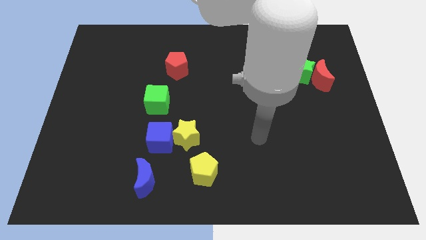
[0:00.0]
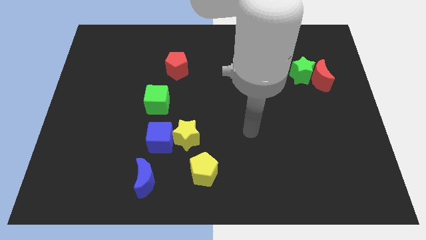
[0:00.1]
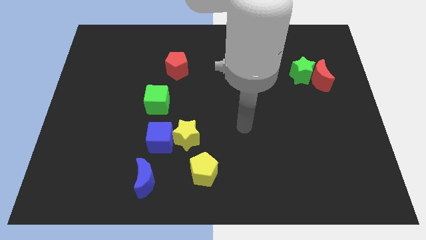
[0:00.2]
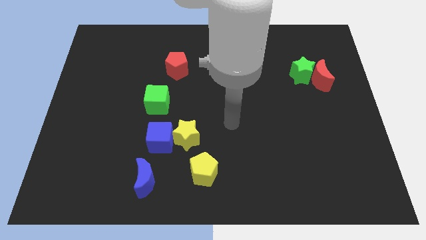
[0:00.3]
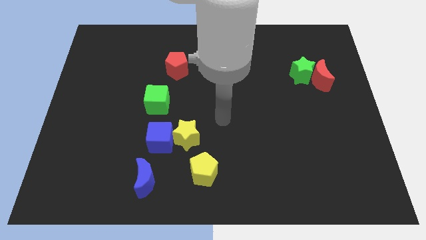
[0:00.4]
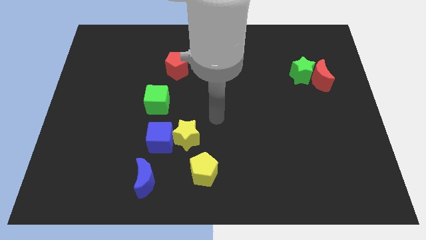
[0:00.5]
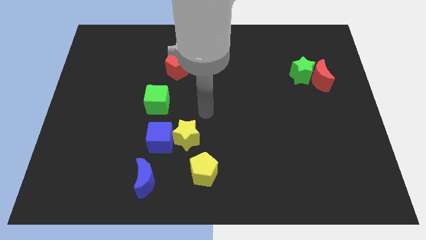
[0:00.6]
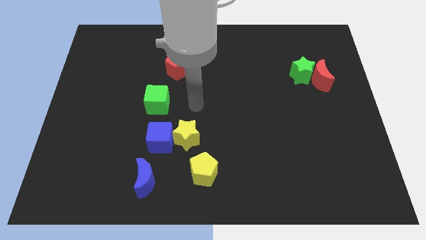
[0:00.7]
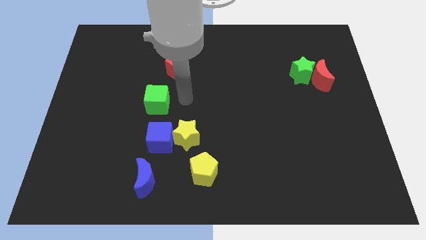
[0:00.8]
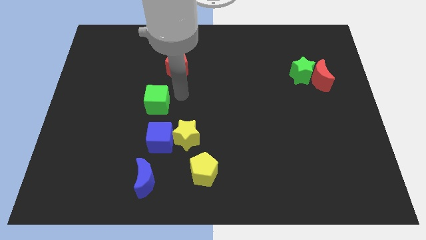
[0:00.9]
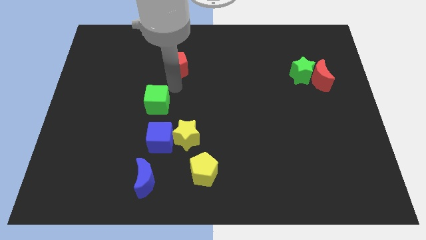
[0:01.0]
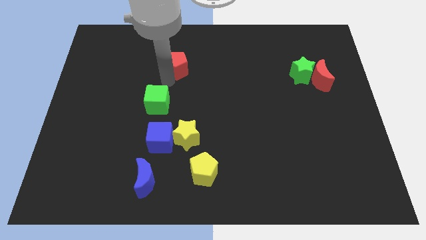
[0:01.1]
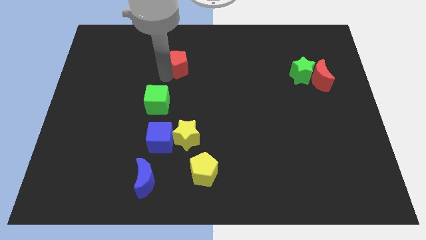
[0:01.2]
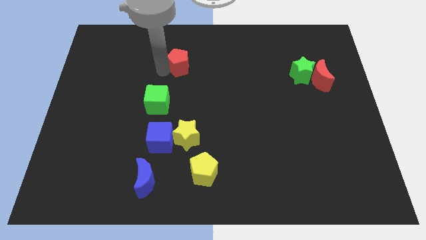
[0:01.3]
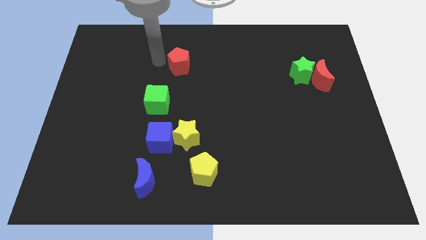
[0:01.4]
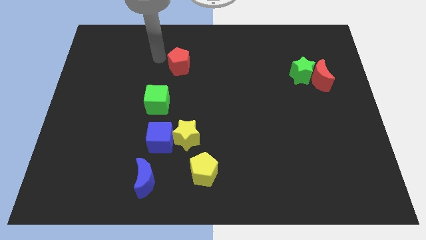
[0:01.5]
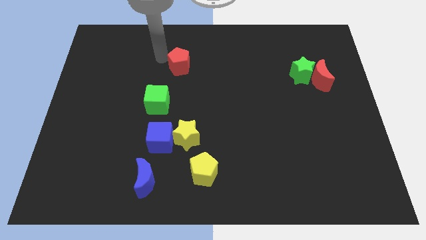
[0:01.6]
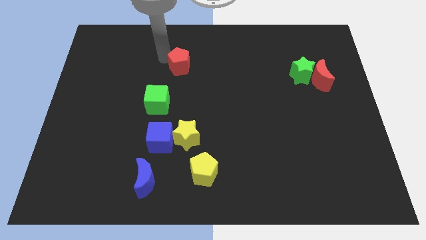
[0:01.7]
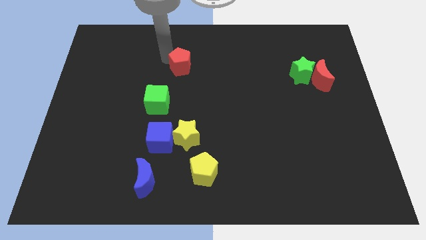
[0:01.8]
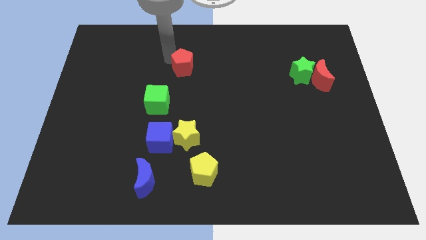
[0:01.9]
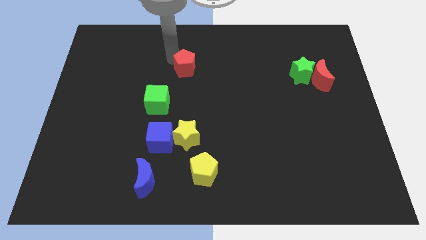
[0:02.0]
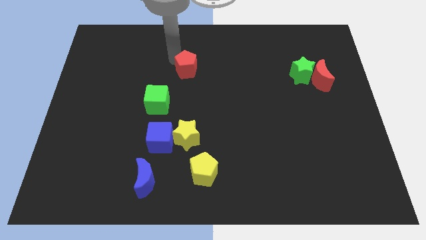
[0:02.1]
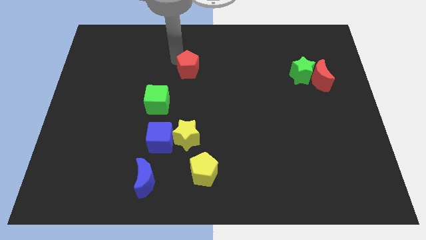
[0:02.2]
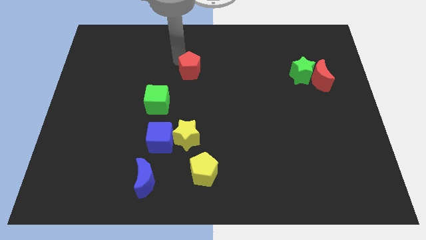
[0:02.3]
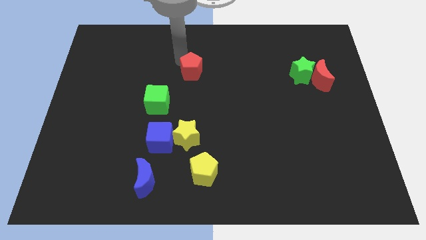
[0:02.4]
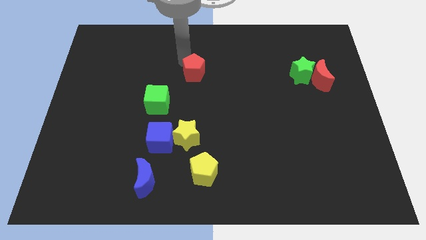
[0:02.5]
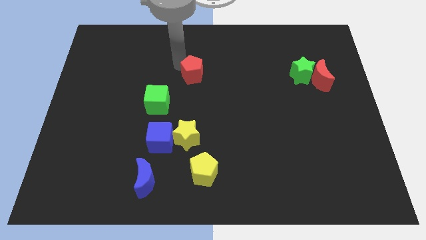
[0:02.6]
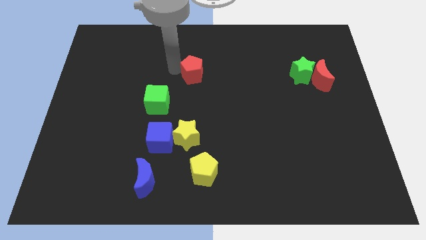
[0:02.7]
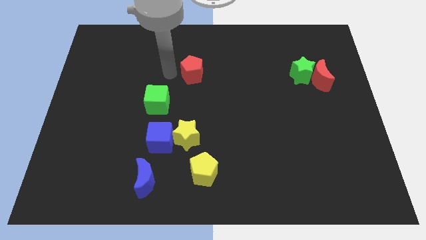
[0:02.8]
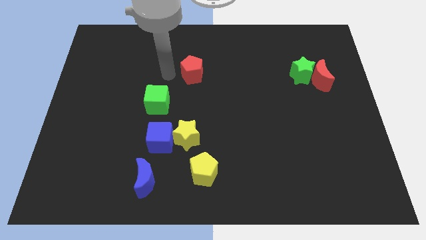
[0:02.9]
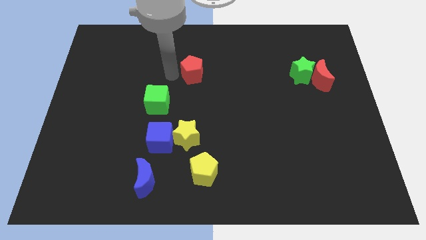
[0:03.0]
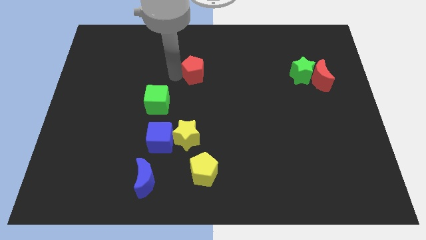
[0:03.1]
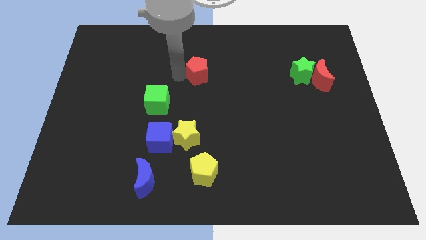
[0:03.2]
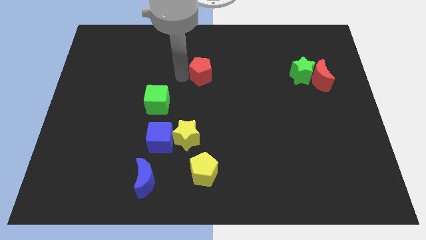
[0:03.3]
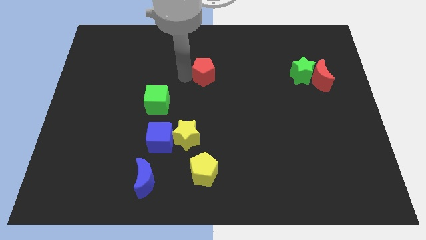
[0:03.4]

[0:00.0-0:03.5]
slightly move the red pentagon right

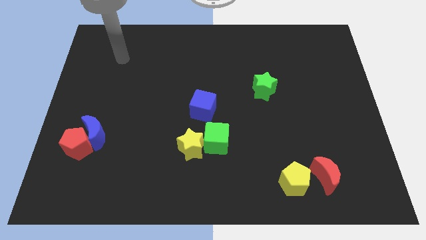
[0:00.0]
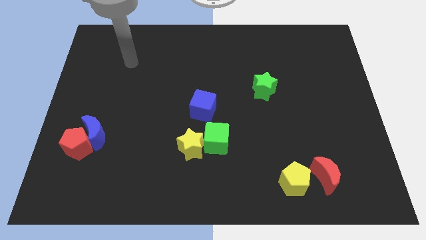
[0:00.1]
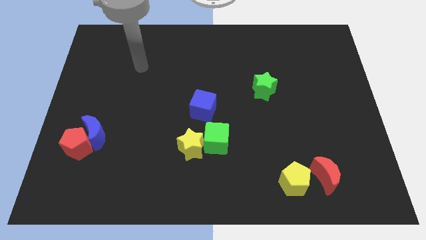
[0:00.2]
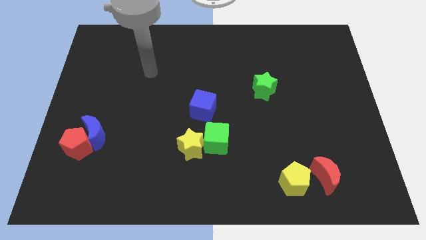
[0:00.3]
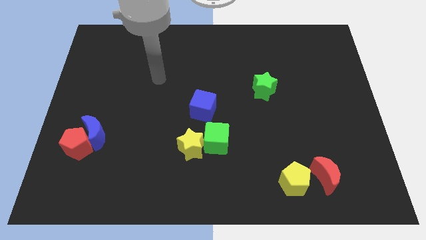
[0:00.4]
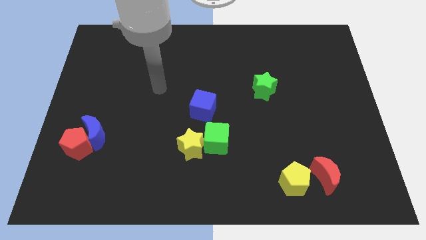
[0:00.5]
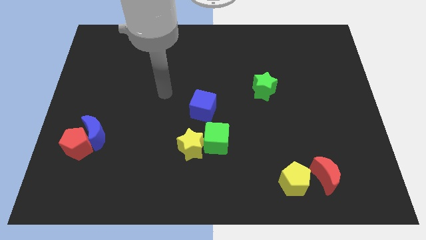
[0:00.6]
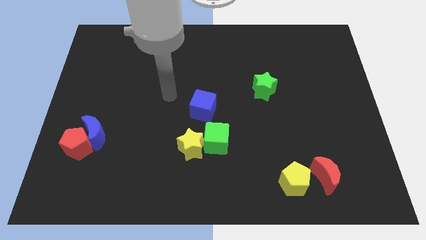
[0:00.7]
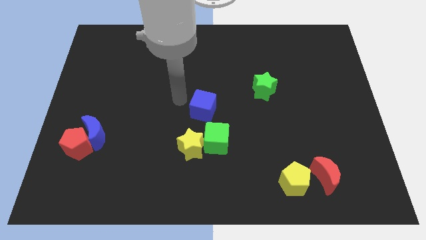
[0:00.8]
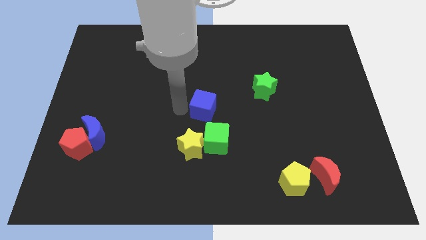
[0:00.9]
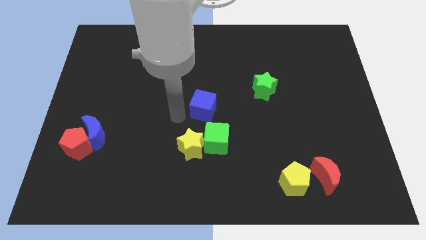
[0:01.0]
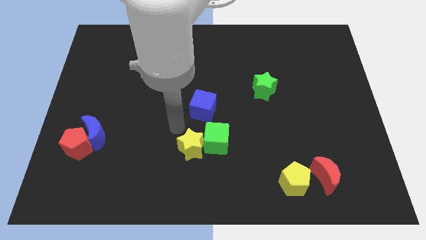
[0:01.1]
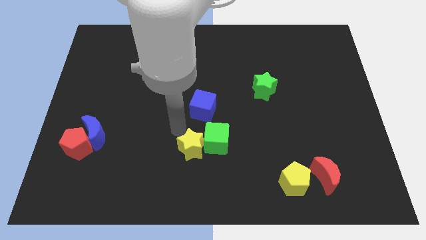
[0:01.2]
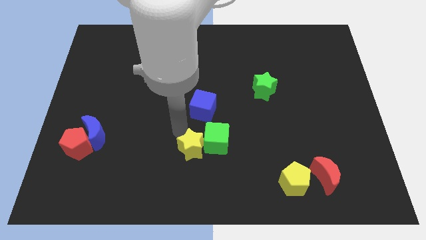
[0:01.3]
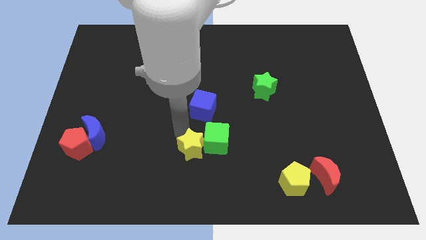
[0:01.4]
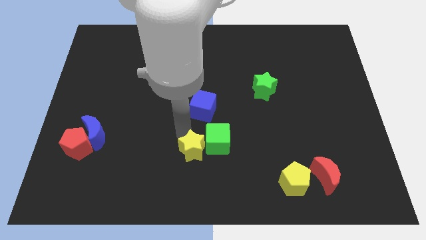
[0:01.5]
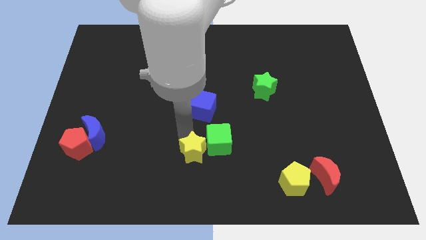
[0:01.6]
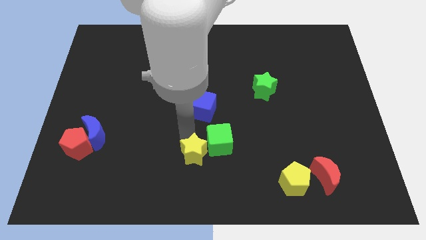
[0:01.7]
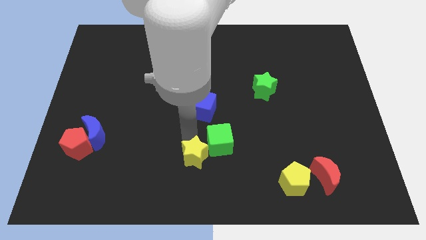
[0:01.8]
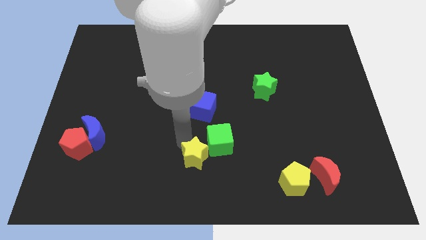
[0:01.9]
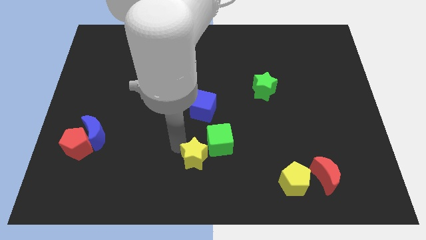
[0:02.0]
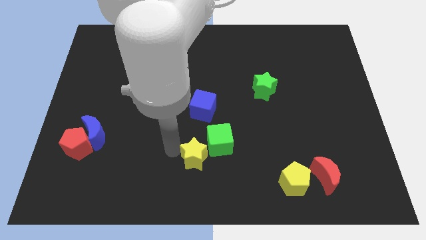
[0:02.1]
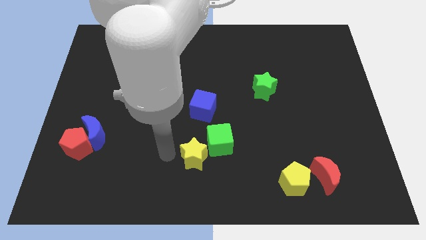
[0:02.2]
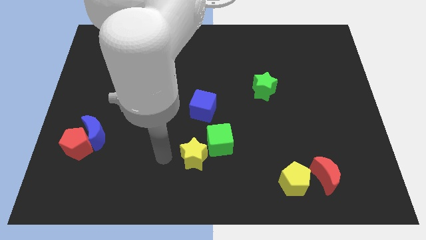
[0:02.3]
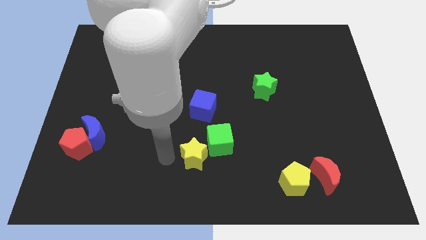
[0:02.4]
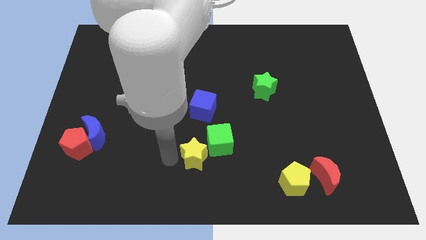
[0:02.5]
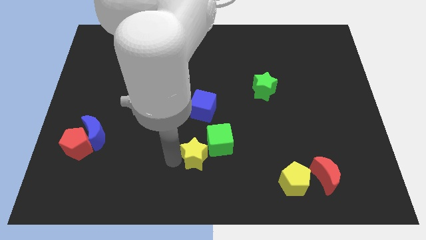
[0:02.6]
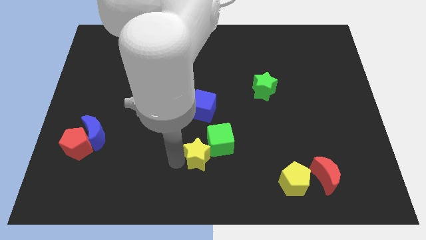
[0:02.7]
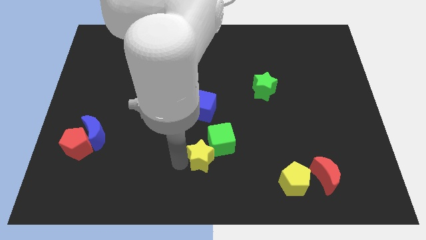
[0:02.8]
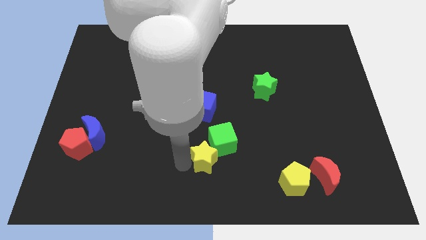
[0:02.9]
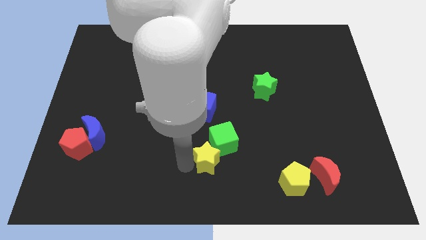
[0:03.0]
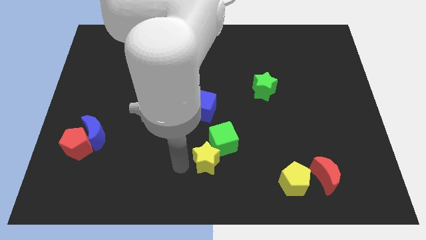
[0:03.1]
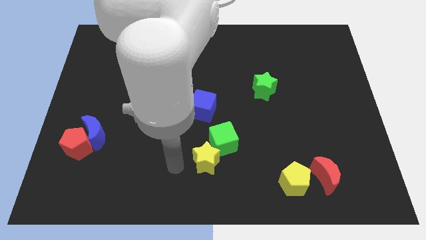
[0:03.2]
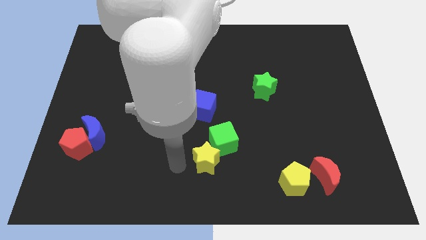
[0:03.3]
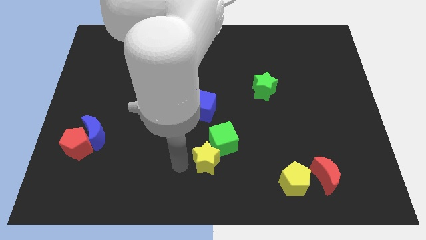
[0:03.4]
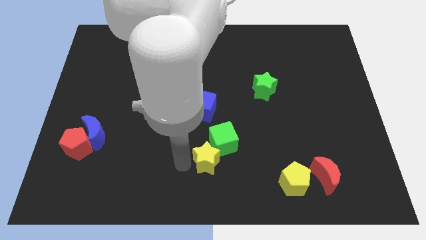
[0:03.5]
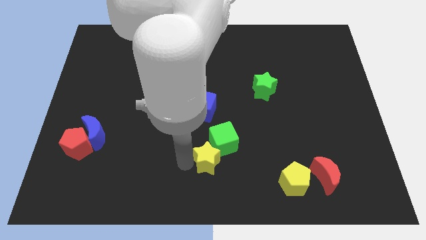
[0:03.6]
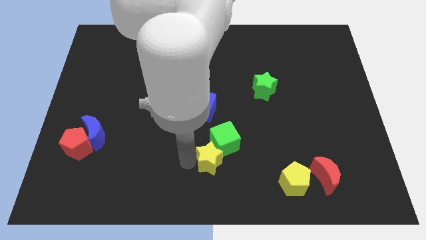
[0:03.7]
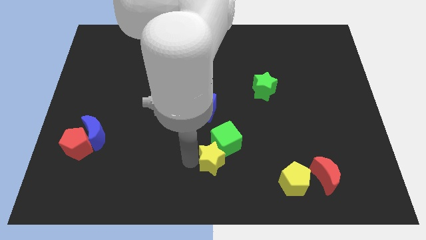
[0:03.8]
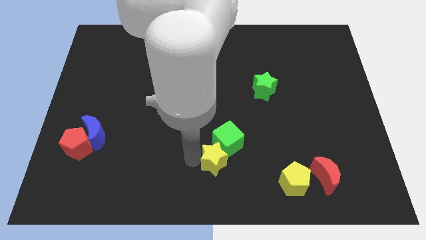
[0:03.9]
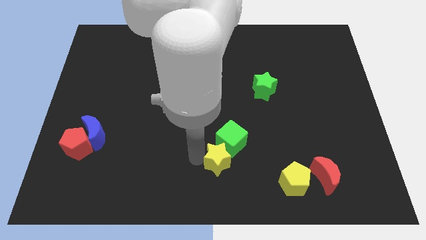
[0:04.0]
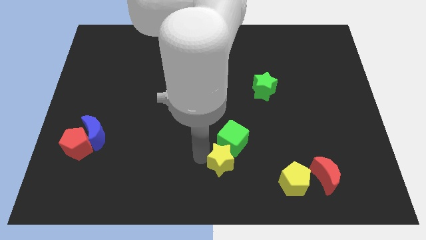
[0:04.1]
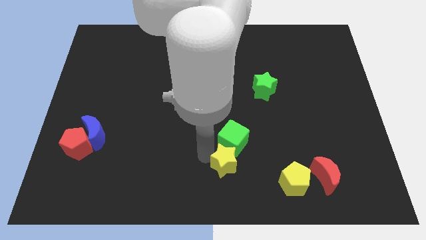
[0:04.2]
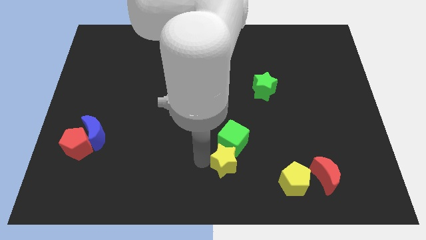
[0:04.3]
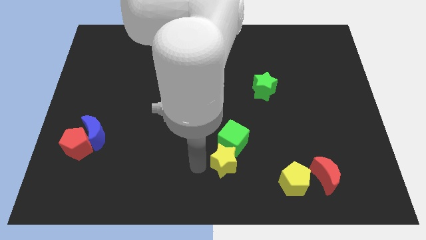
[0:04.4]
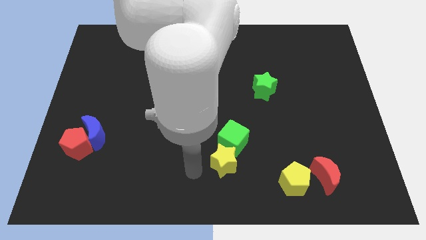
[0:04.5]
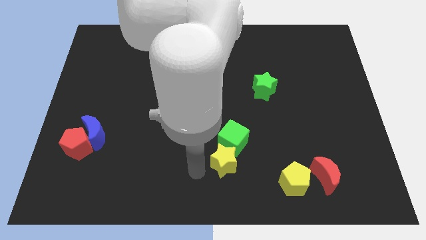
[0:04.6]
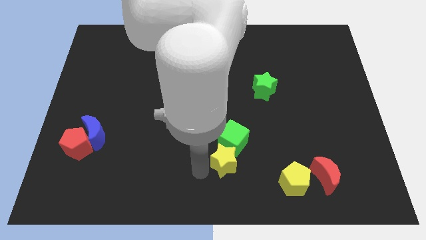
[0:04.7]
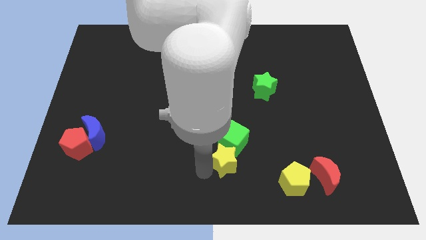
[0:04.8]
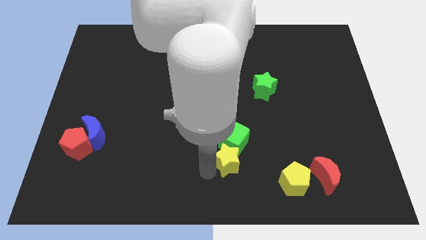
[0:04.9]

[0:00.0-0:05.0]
slightly push the yellow star to the right
